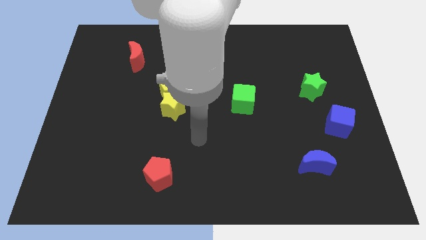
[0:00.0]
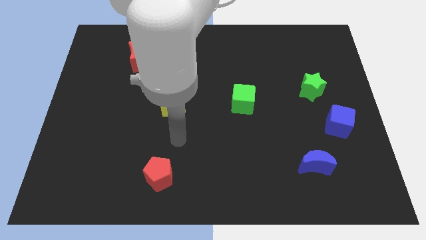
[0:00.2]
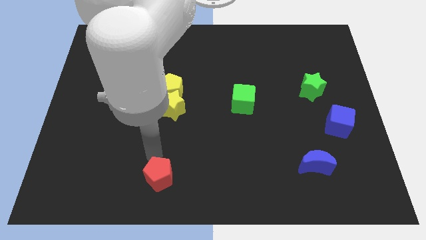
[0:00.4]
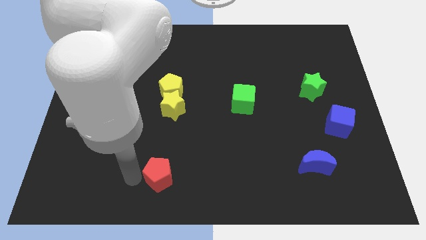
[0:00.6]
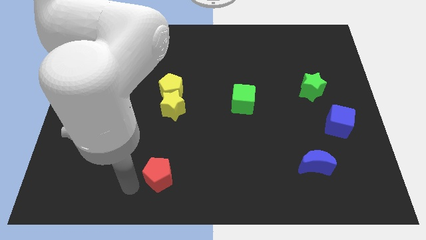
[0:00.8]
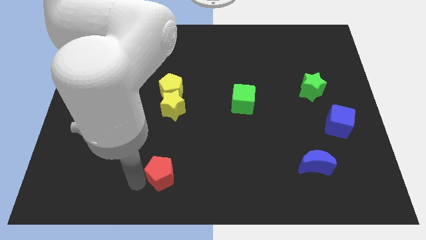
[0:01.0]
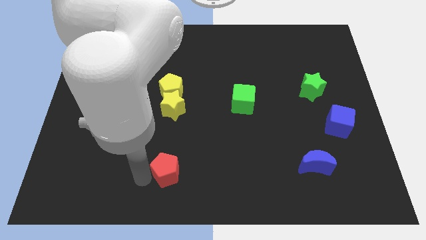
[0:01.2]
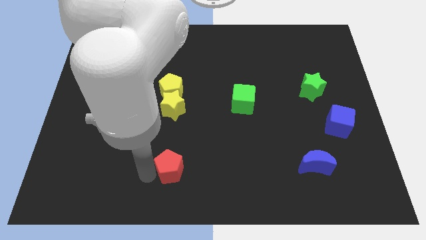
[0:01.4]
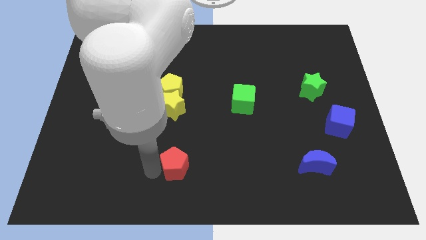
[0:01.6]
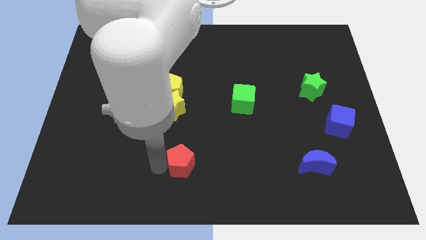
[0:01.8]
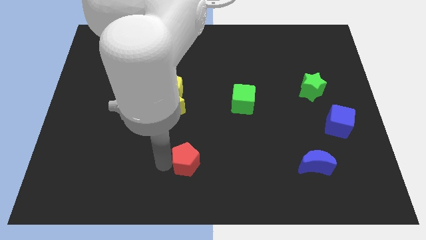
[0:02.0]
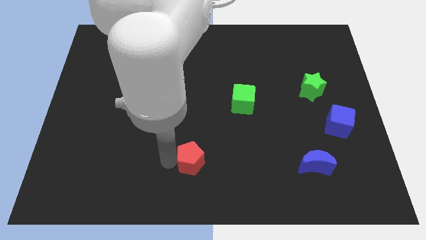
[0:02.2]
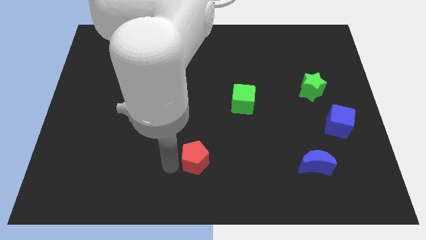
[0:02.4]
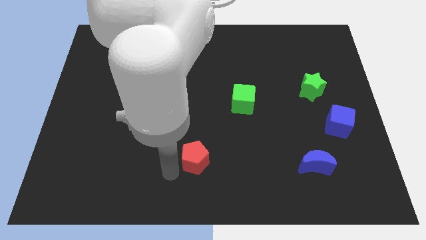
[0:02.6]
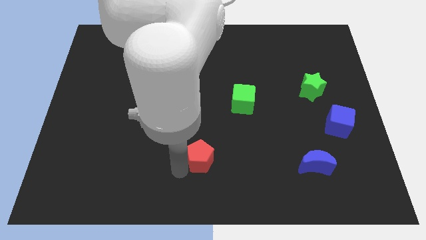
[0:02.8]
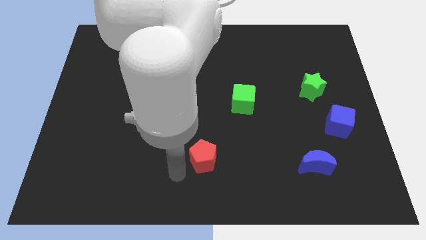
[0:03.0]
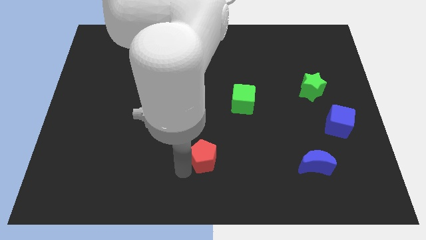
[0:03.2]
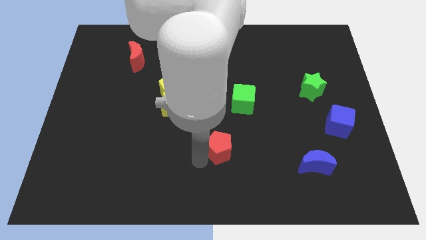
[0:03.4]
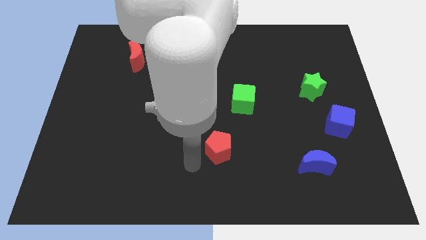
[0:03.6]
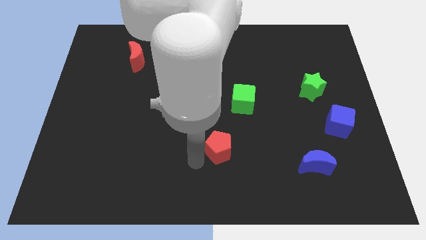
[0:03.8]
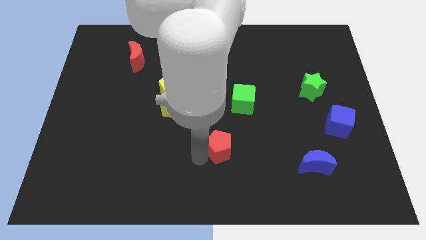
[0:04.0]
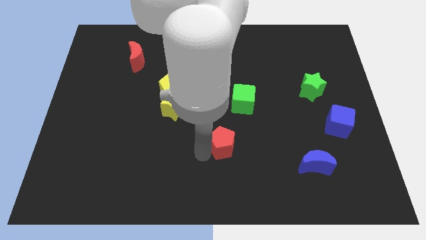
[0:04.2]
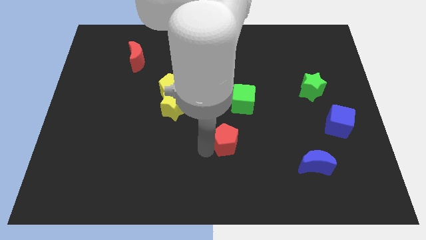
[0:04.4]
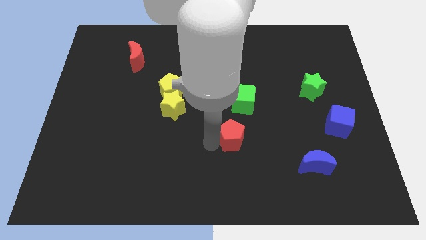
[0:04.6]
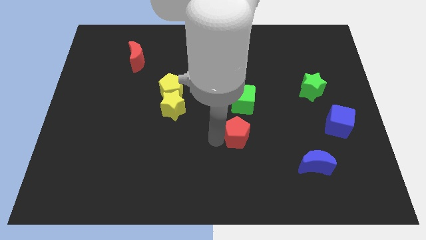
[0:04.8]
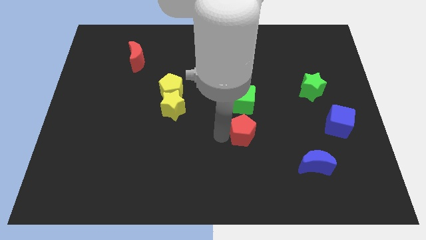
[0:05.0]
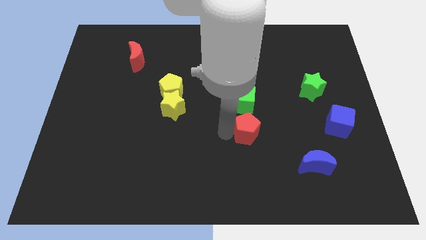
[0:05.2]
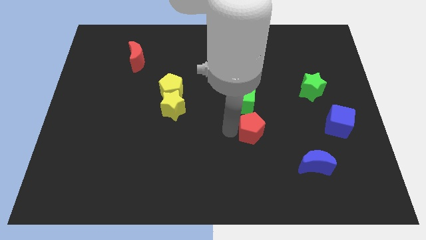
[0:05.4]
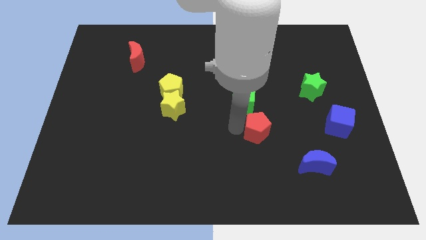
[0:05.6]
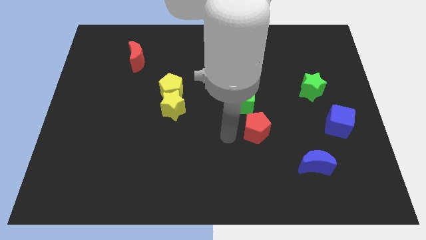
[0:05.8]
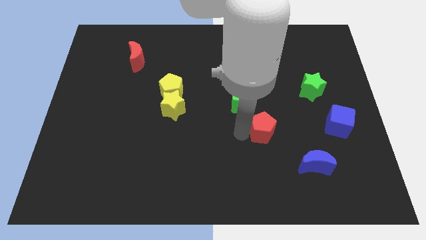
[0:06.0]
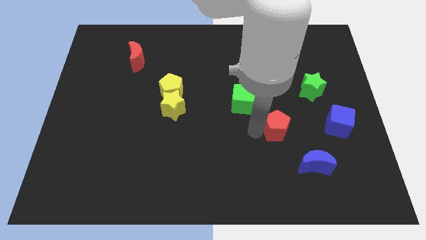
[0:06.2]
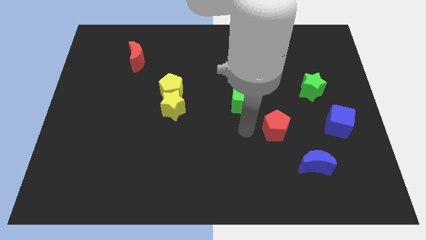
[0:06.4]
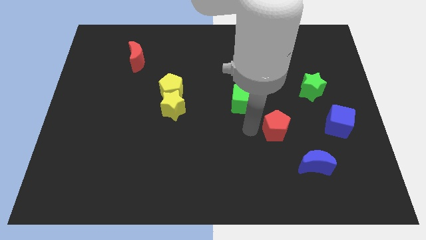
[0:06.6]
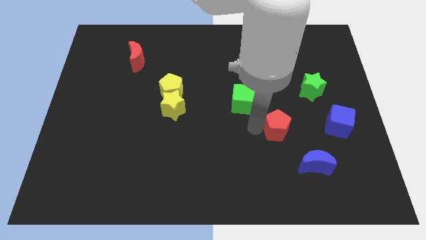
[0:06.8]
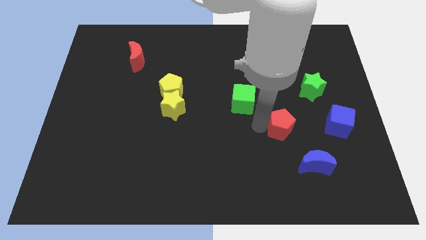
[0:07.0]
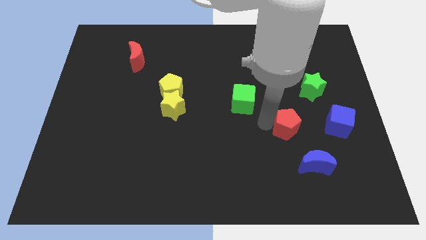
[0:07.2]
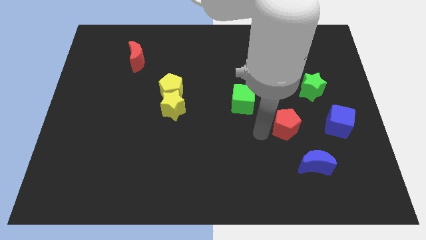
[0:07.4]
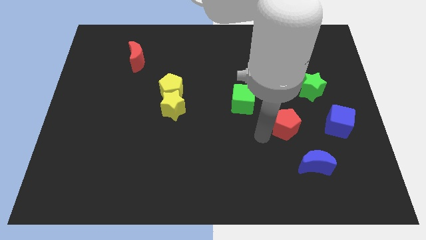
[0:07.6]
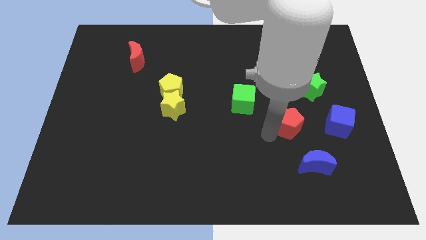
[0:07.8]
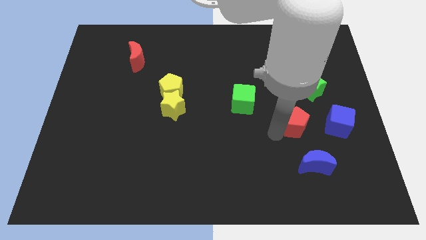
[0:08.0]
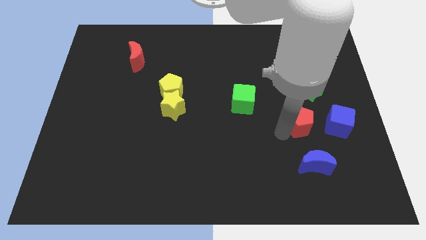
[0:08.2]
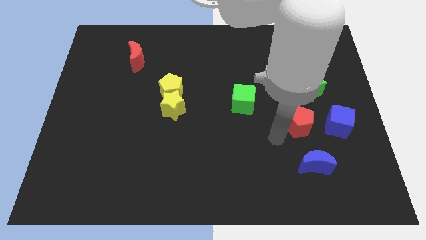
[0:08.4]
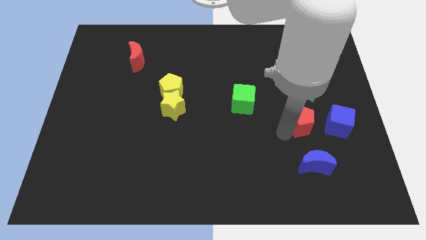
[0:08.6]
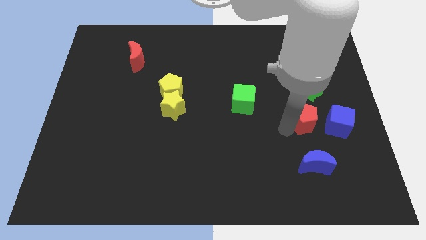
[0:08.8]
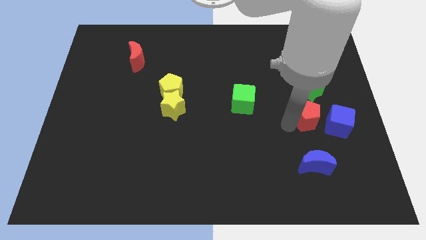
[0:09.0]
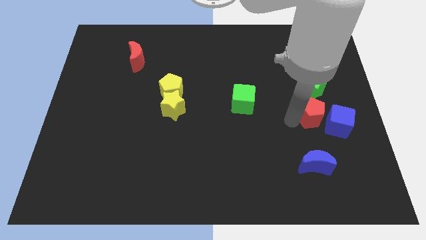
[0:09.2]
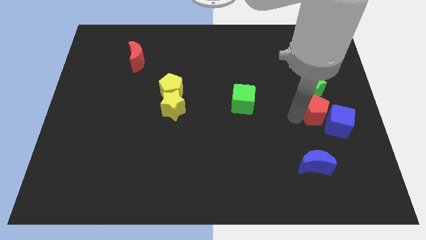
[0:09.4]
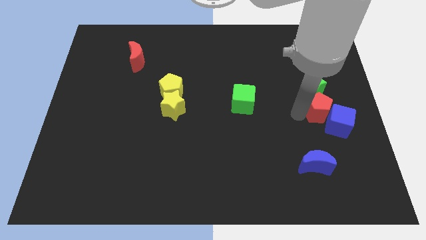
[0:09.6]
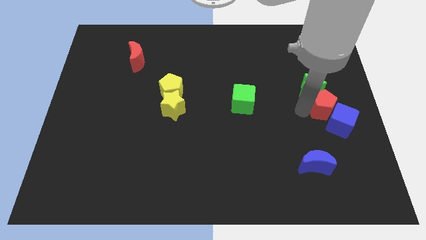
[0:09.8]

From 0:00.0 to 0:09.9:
put the red pentagon to the center right

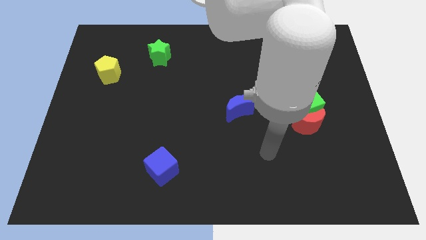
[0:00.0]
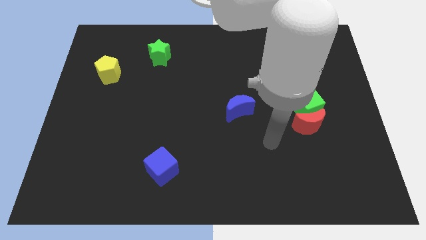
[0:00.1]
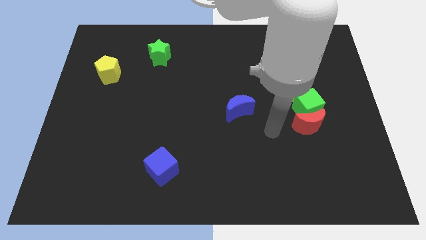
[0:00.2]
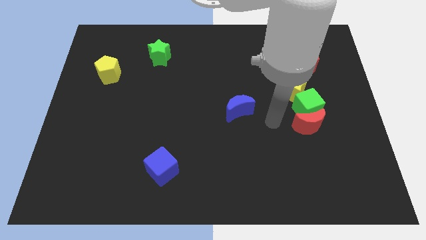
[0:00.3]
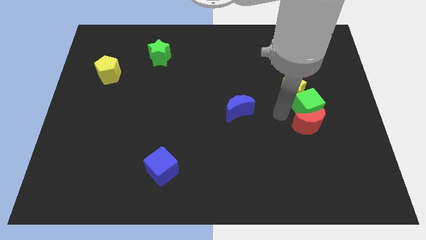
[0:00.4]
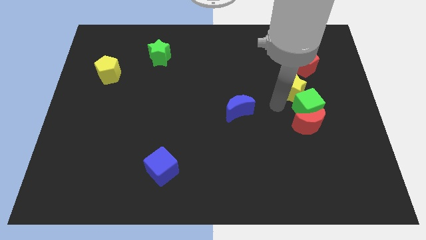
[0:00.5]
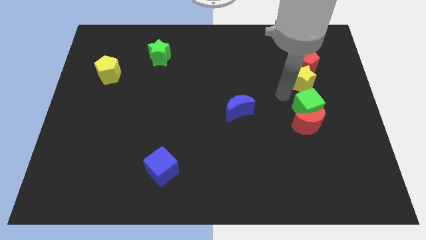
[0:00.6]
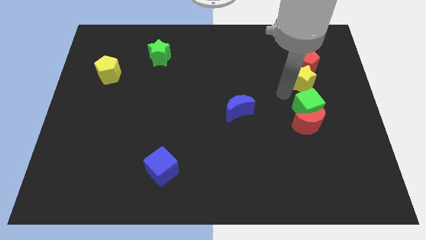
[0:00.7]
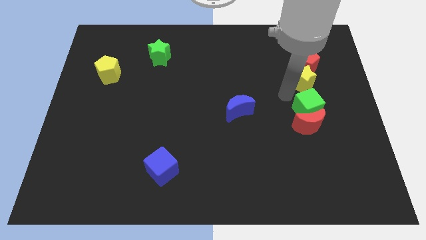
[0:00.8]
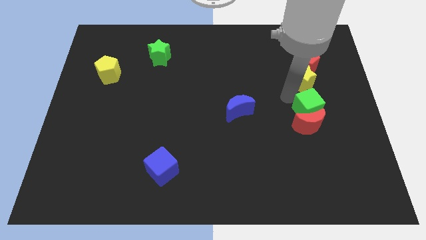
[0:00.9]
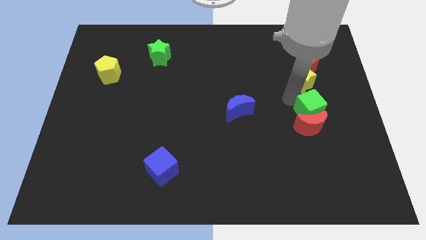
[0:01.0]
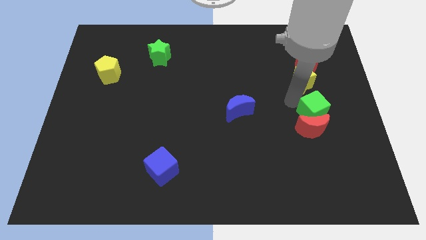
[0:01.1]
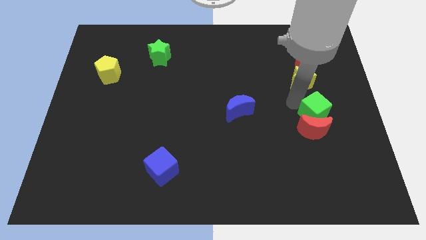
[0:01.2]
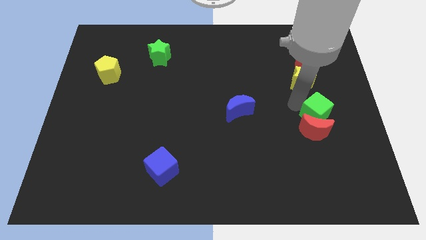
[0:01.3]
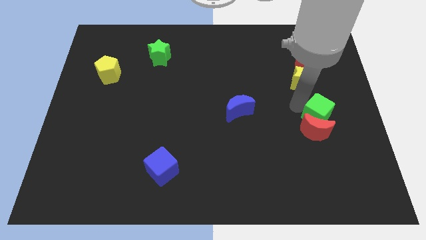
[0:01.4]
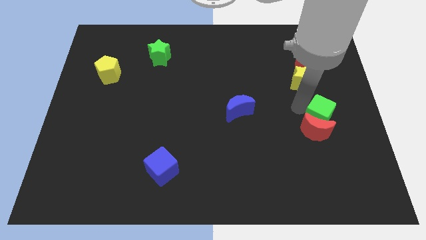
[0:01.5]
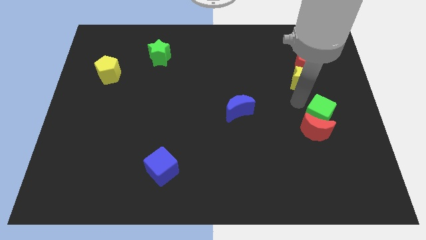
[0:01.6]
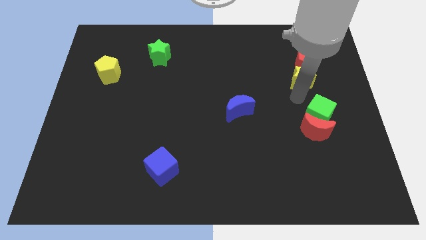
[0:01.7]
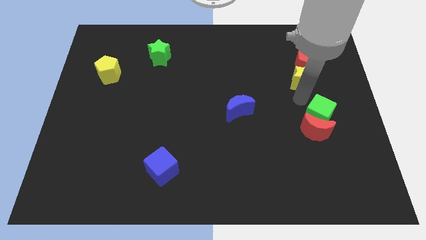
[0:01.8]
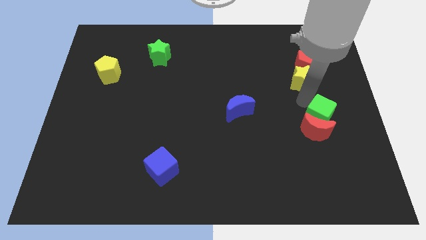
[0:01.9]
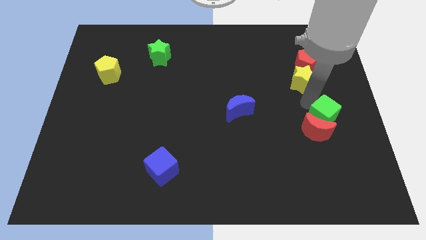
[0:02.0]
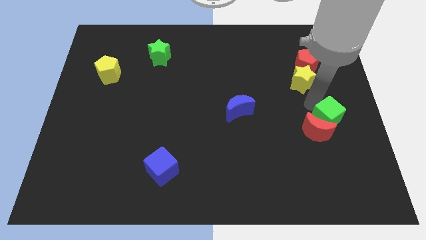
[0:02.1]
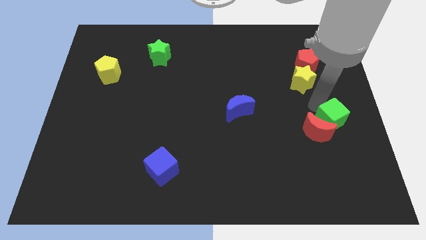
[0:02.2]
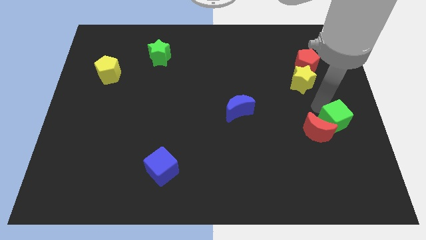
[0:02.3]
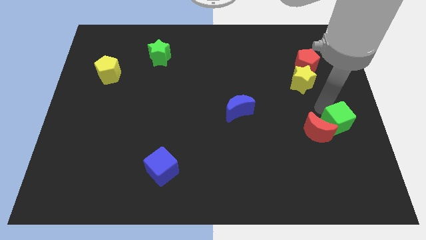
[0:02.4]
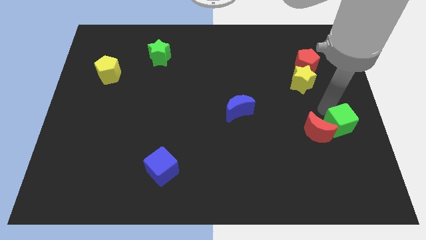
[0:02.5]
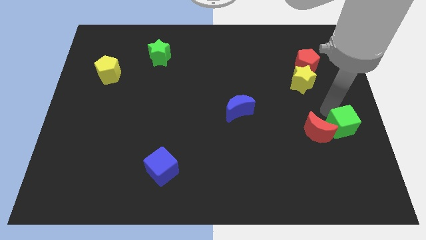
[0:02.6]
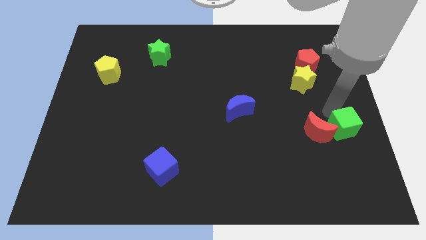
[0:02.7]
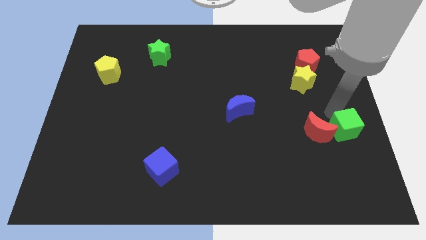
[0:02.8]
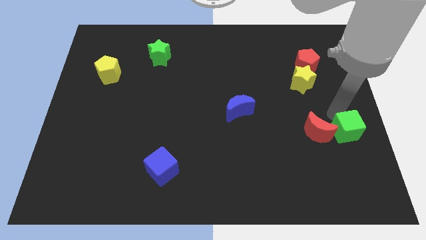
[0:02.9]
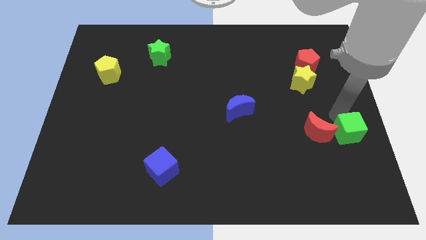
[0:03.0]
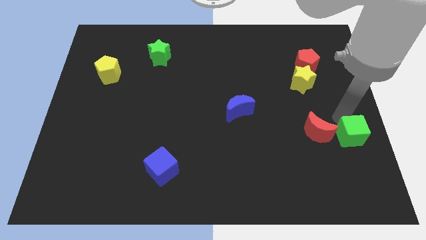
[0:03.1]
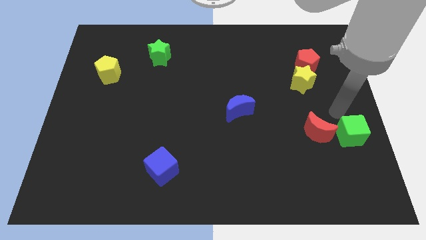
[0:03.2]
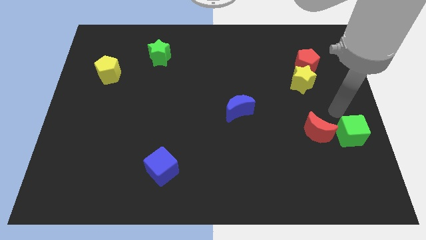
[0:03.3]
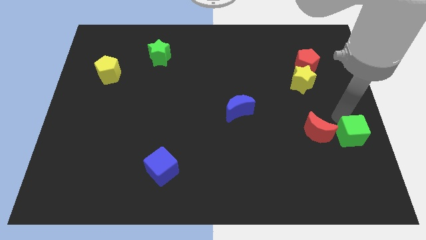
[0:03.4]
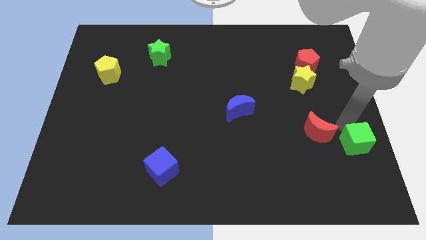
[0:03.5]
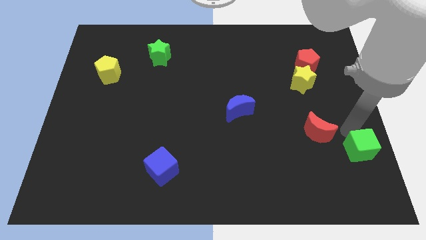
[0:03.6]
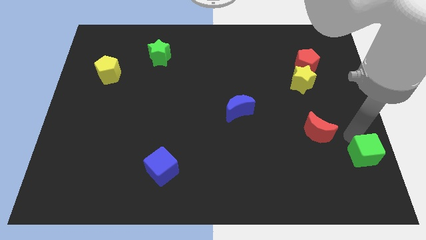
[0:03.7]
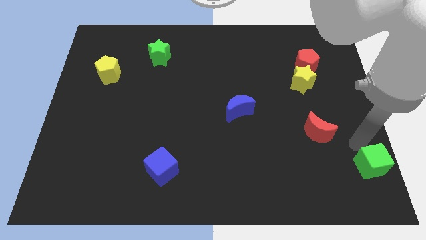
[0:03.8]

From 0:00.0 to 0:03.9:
push the green cube to the lower right corner
